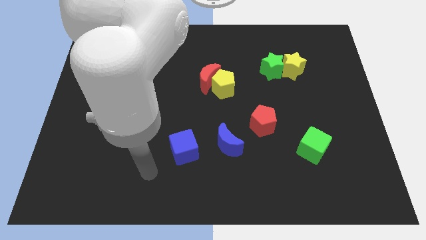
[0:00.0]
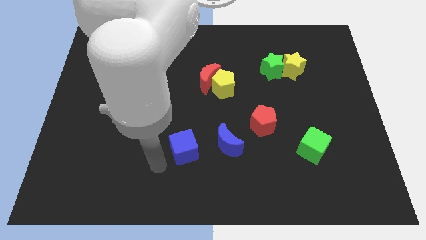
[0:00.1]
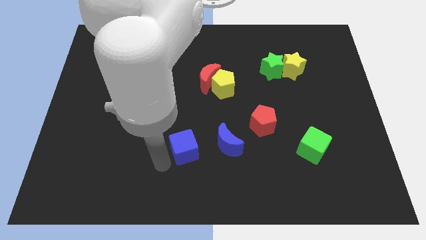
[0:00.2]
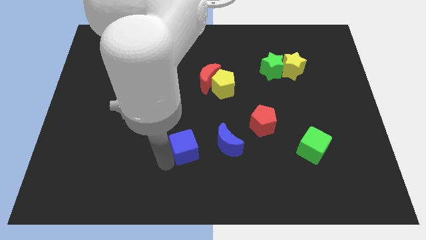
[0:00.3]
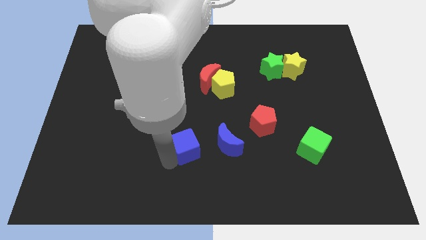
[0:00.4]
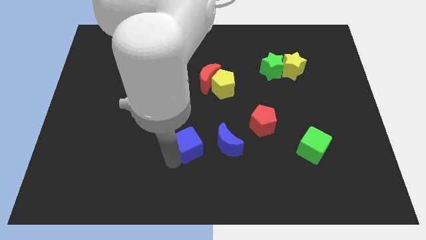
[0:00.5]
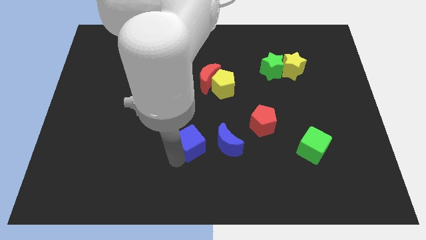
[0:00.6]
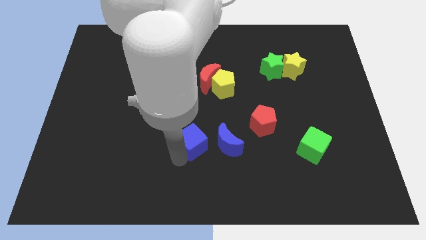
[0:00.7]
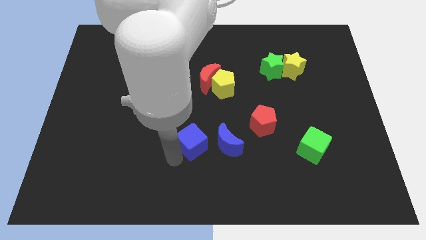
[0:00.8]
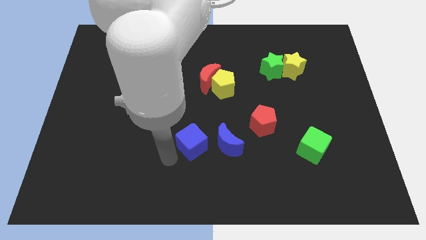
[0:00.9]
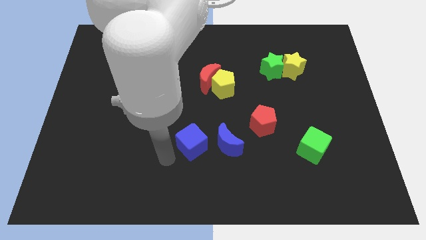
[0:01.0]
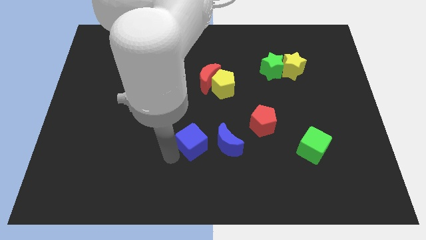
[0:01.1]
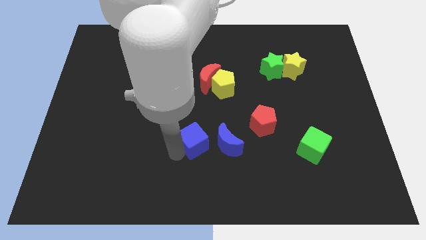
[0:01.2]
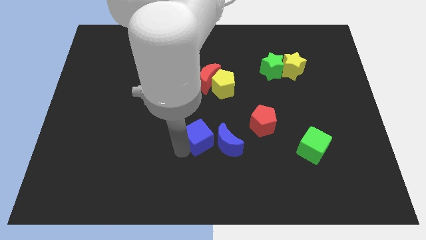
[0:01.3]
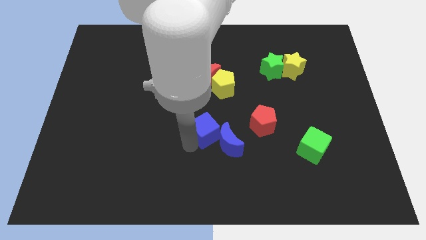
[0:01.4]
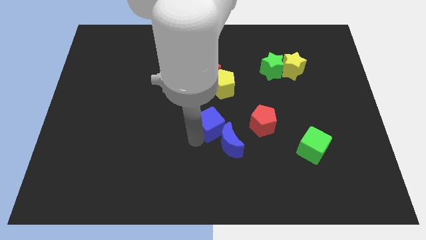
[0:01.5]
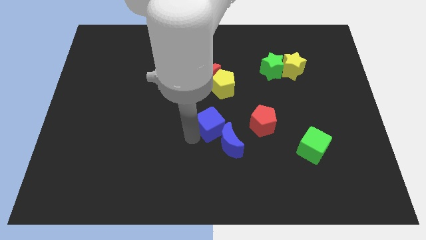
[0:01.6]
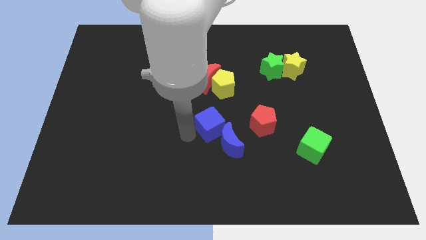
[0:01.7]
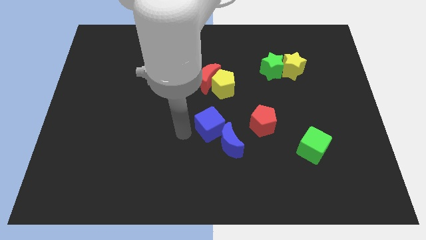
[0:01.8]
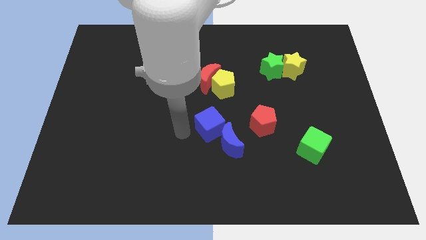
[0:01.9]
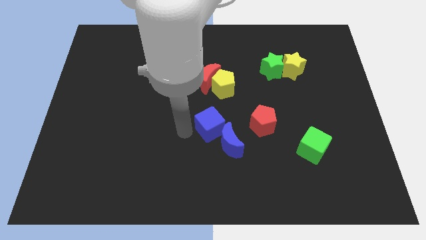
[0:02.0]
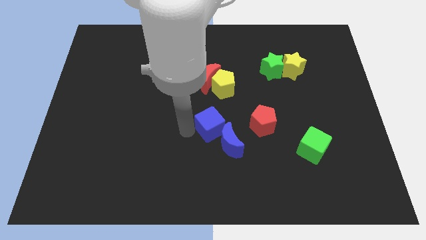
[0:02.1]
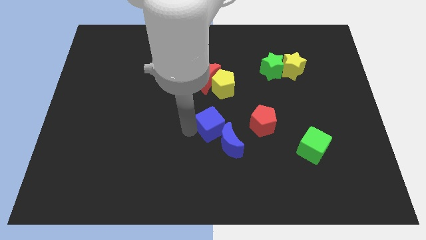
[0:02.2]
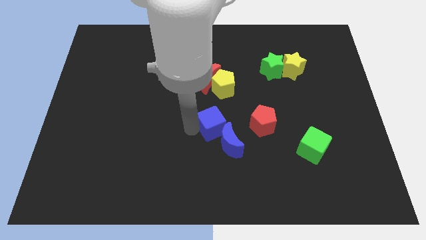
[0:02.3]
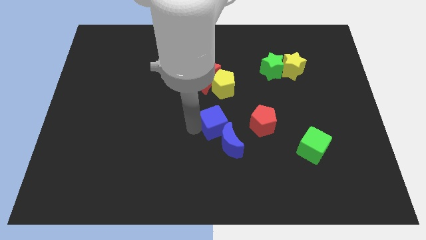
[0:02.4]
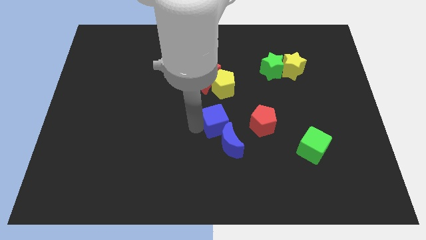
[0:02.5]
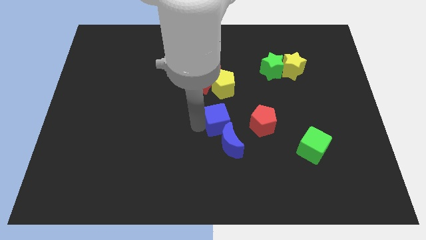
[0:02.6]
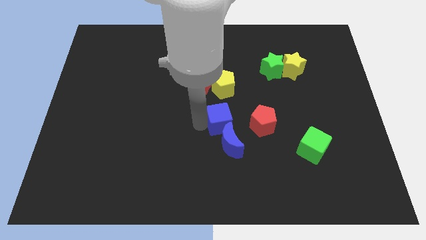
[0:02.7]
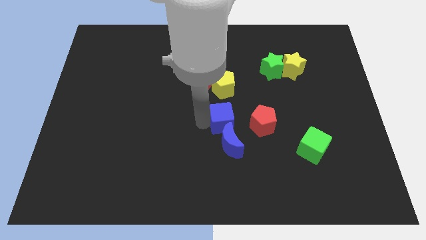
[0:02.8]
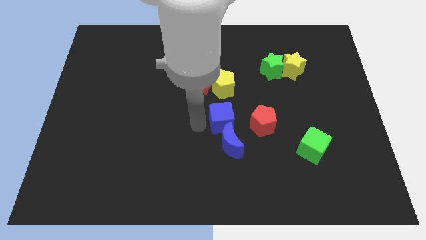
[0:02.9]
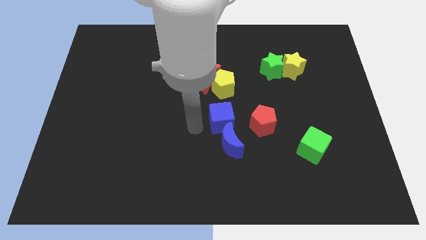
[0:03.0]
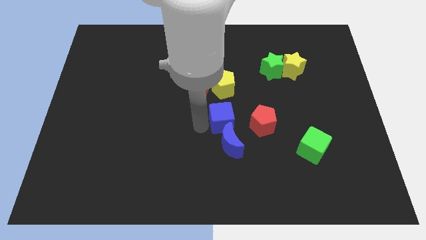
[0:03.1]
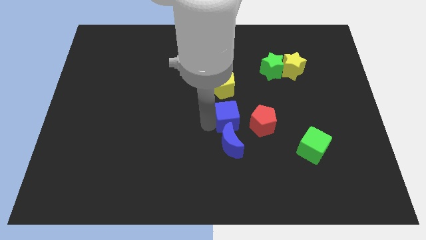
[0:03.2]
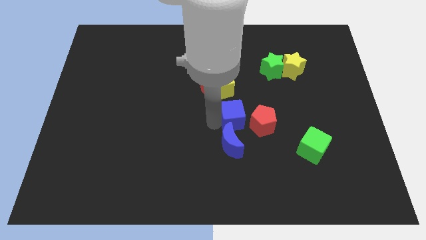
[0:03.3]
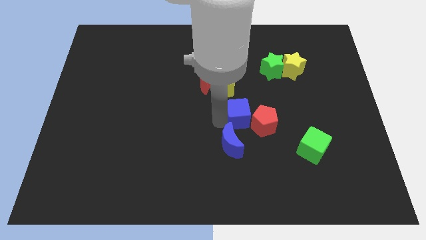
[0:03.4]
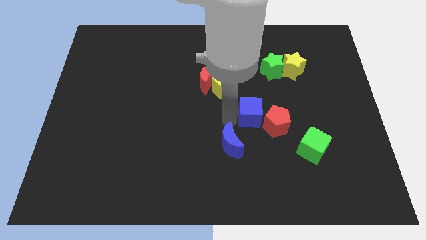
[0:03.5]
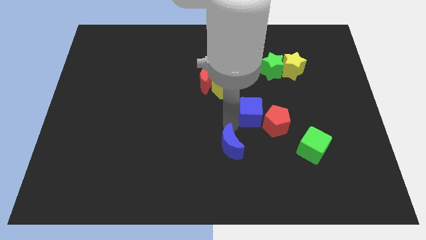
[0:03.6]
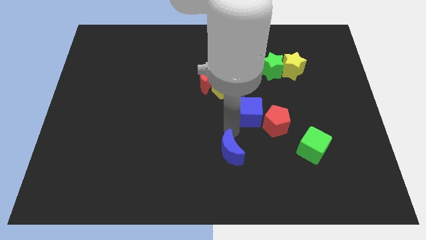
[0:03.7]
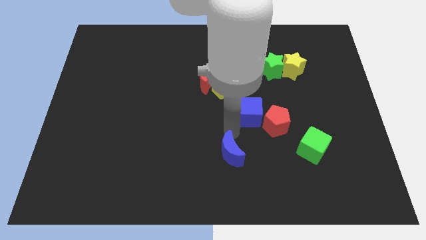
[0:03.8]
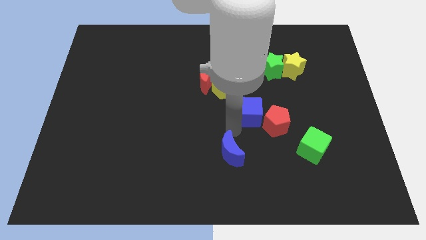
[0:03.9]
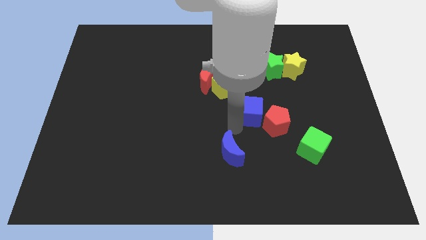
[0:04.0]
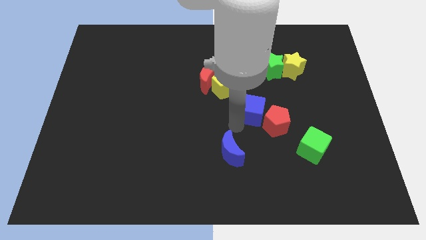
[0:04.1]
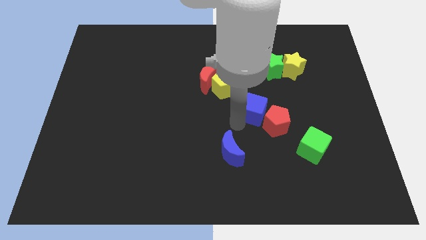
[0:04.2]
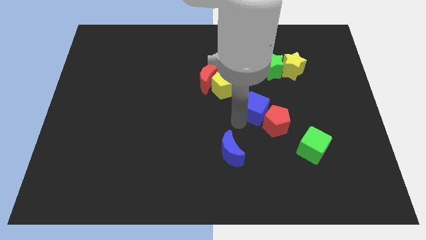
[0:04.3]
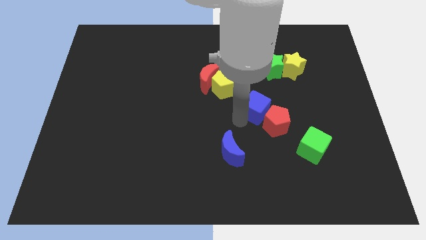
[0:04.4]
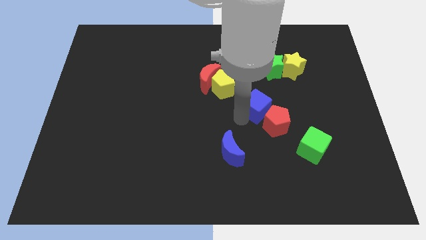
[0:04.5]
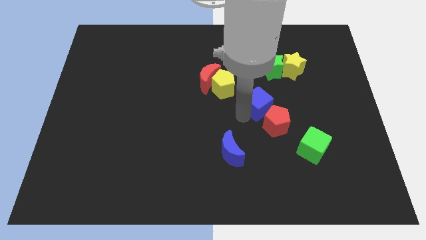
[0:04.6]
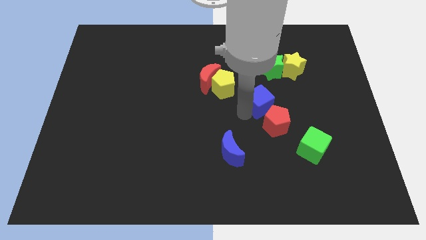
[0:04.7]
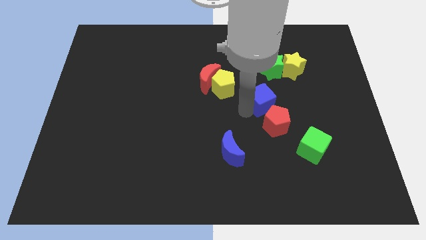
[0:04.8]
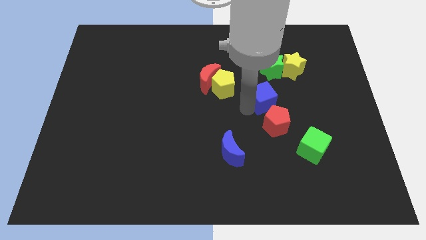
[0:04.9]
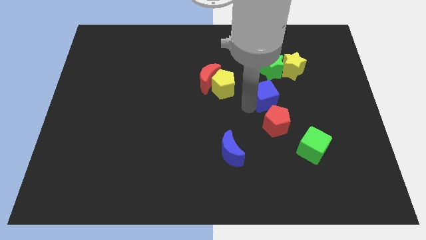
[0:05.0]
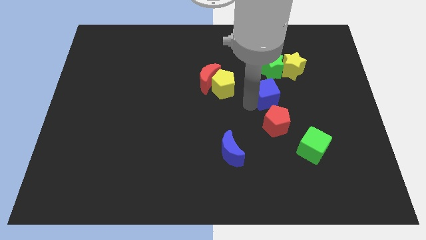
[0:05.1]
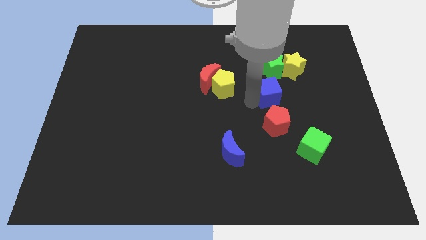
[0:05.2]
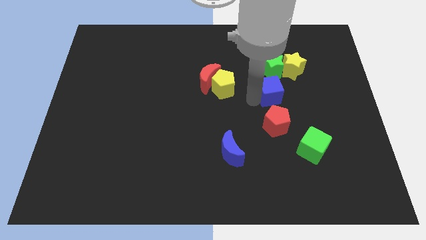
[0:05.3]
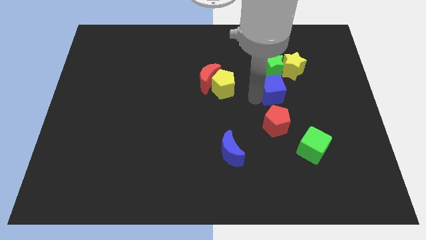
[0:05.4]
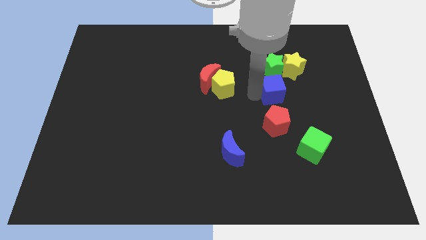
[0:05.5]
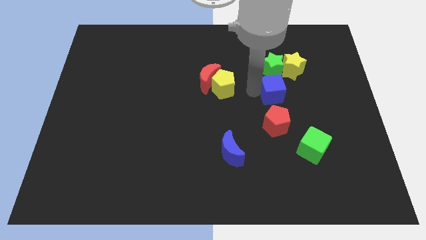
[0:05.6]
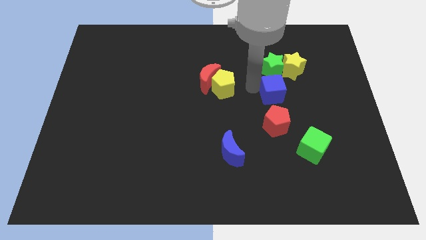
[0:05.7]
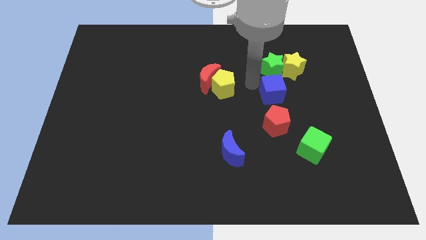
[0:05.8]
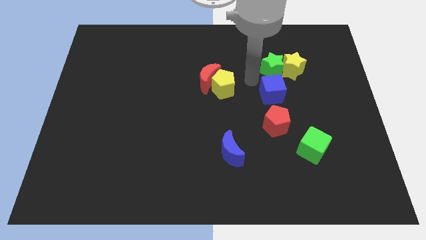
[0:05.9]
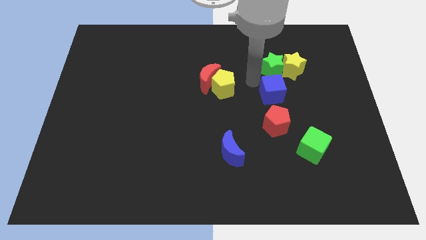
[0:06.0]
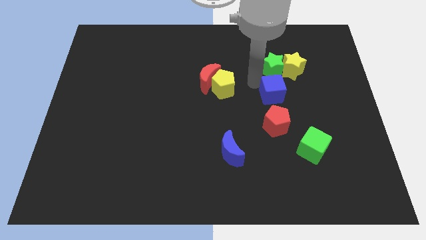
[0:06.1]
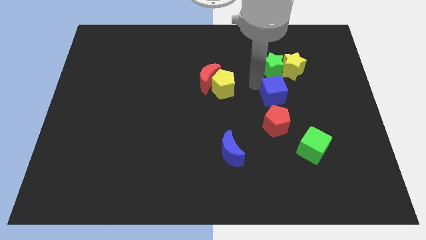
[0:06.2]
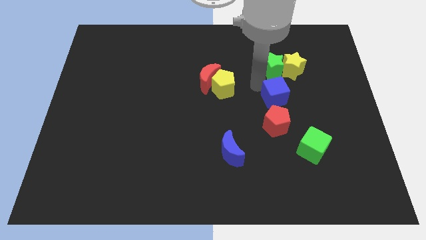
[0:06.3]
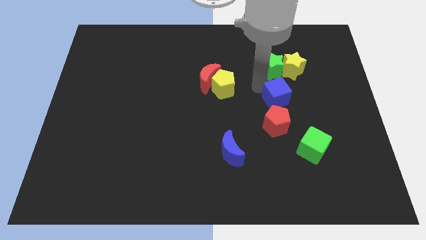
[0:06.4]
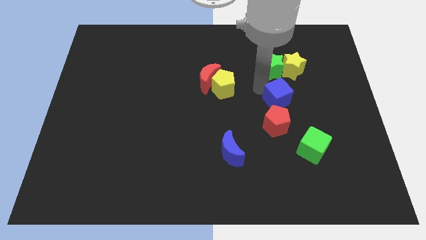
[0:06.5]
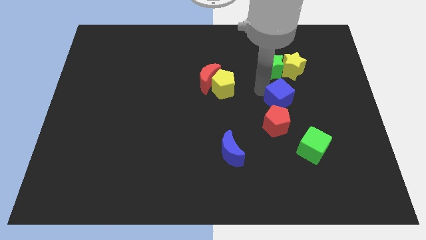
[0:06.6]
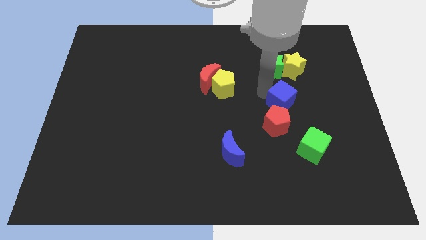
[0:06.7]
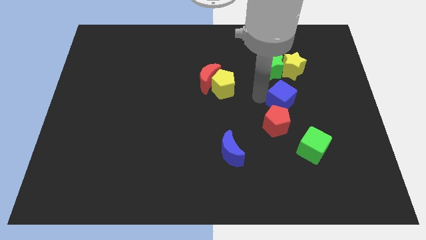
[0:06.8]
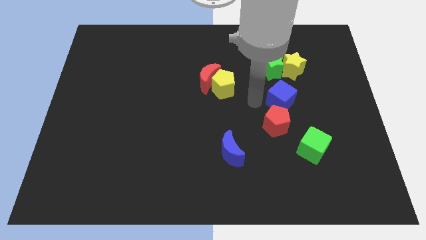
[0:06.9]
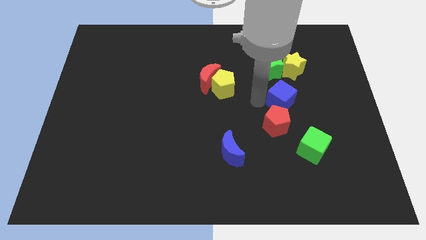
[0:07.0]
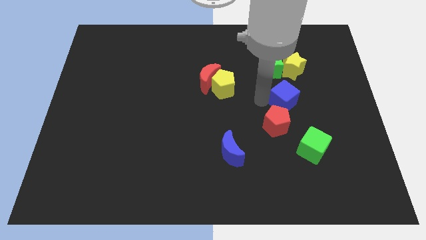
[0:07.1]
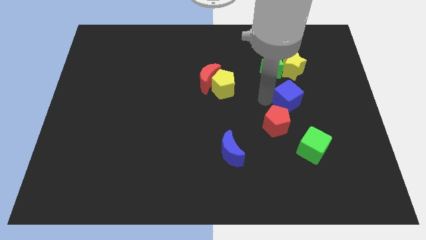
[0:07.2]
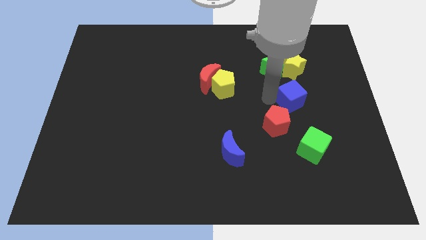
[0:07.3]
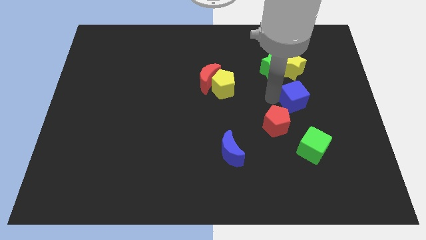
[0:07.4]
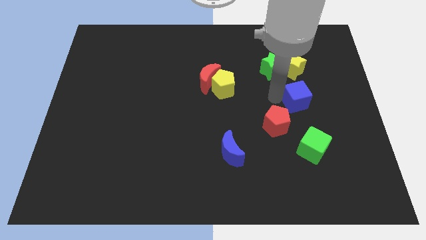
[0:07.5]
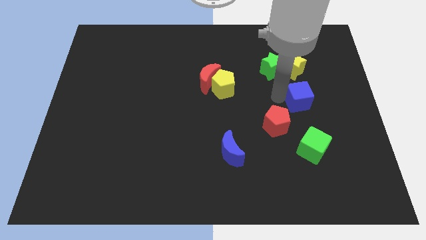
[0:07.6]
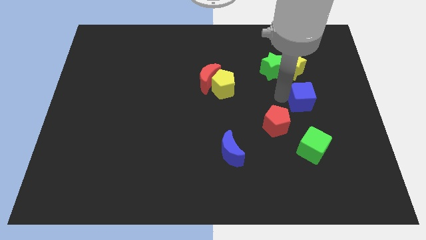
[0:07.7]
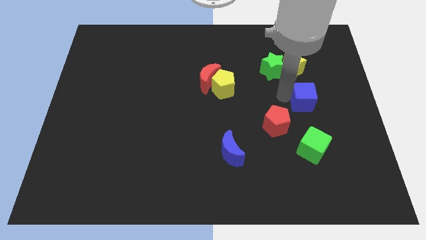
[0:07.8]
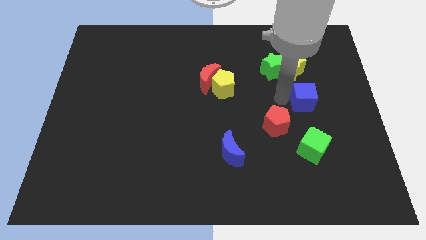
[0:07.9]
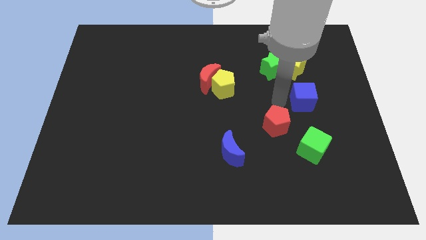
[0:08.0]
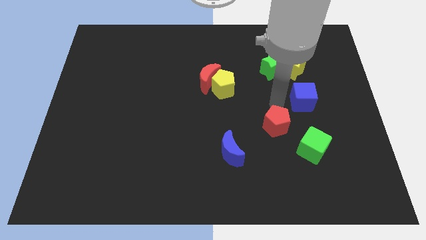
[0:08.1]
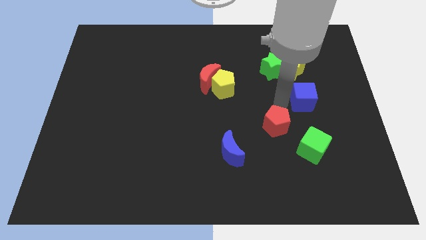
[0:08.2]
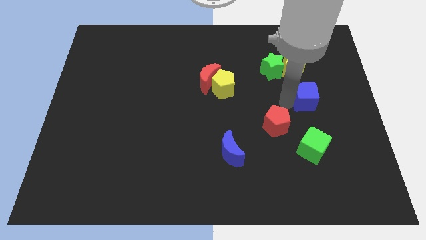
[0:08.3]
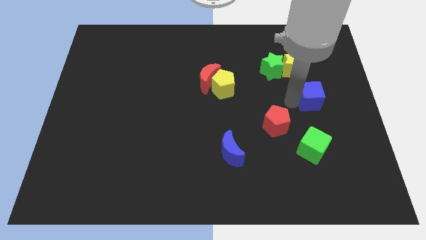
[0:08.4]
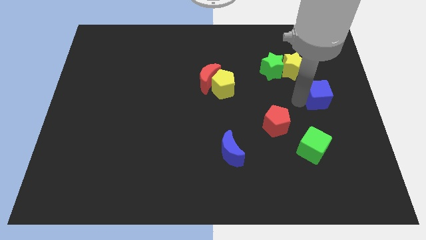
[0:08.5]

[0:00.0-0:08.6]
push the blue cube to the right side of the board
